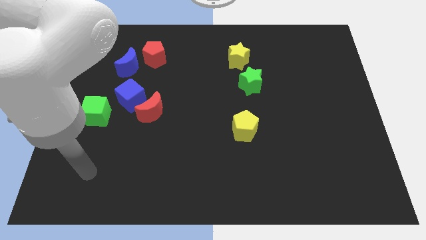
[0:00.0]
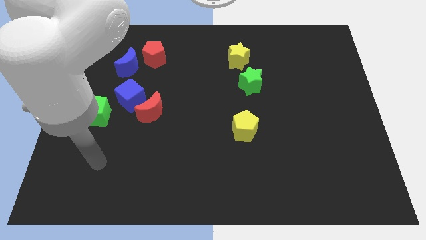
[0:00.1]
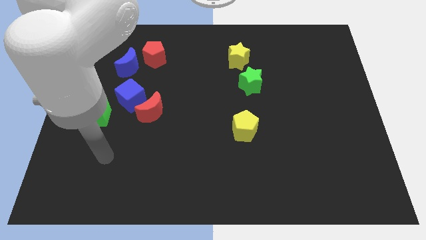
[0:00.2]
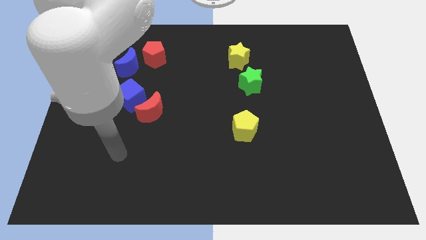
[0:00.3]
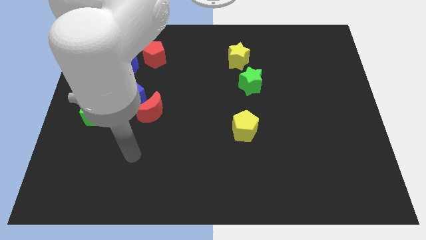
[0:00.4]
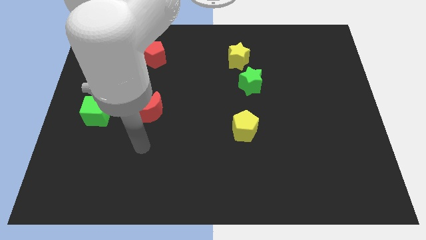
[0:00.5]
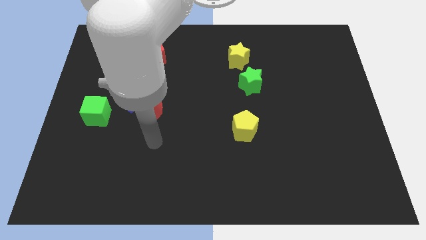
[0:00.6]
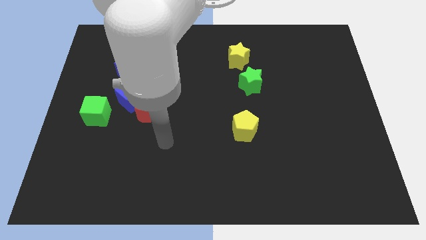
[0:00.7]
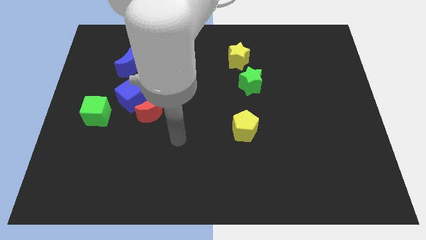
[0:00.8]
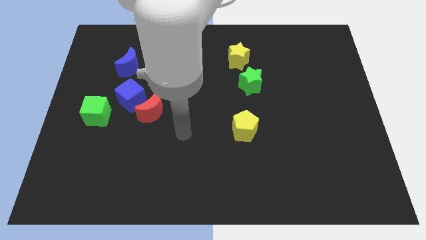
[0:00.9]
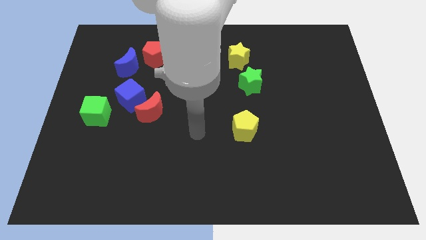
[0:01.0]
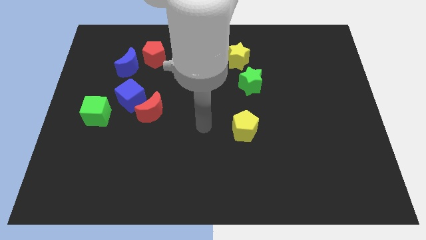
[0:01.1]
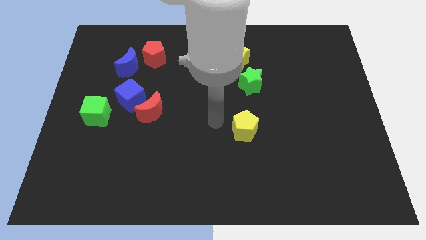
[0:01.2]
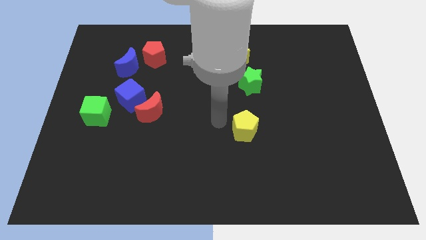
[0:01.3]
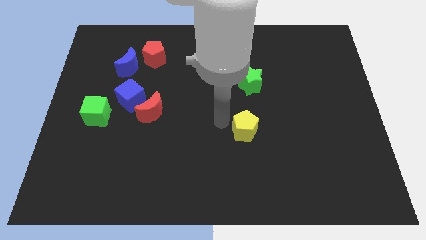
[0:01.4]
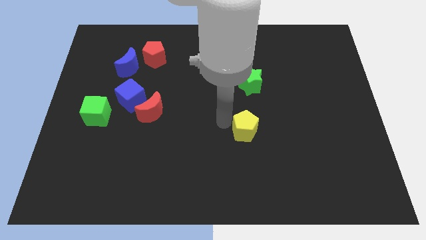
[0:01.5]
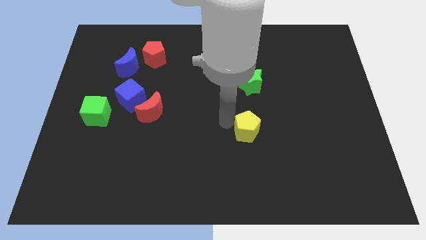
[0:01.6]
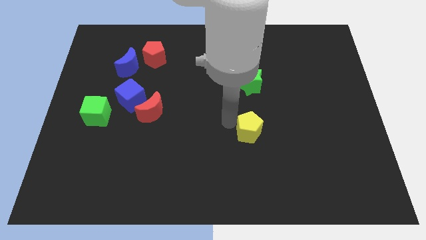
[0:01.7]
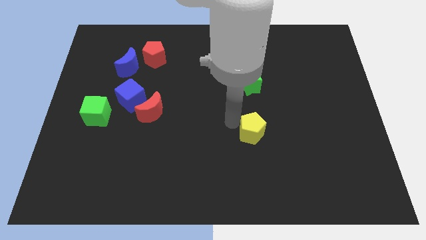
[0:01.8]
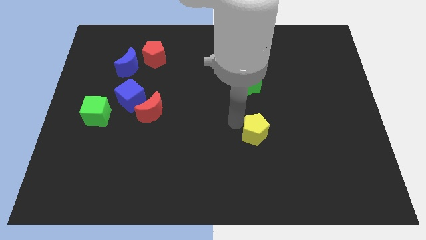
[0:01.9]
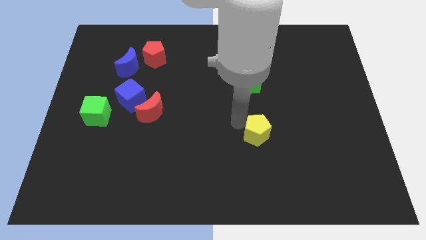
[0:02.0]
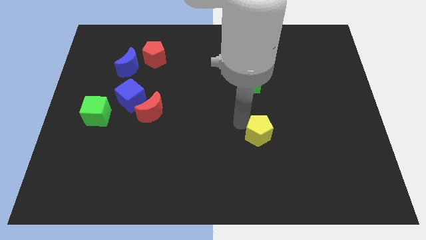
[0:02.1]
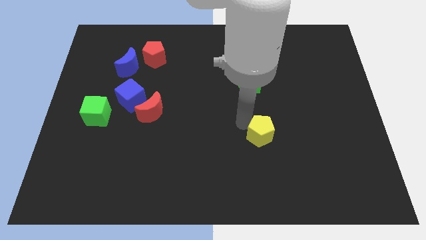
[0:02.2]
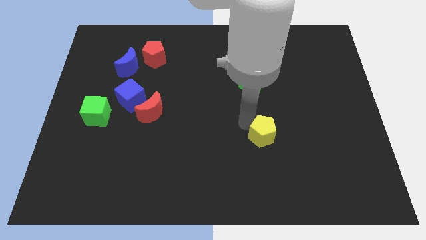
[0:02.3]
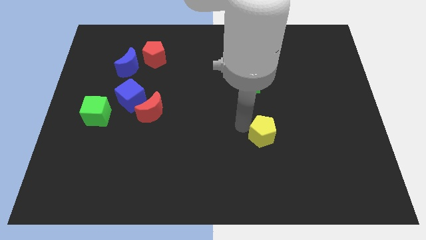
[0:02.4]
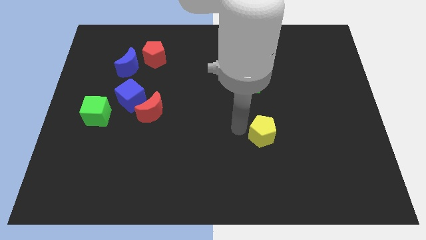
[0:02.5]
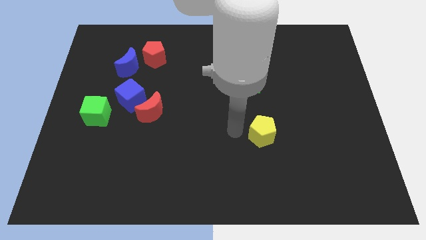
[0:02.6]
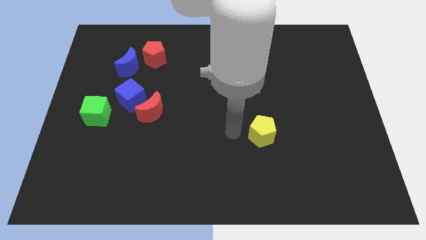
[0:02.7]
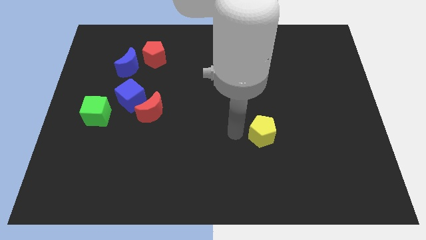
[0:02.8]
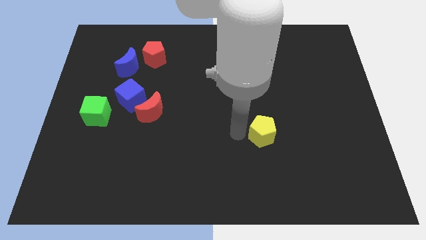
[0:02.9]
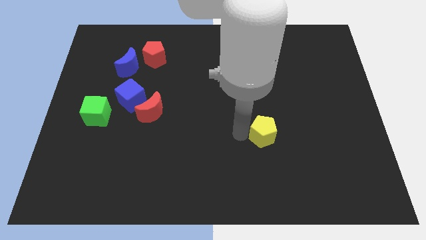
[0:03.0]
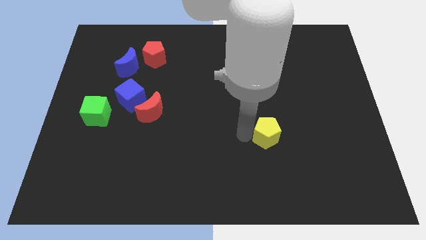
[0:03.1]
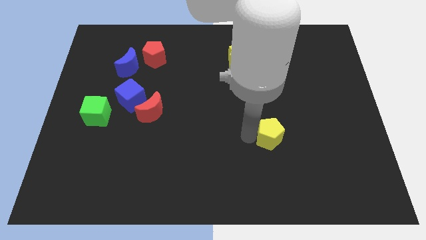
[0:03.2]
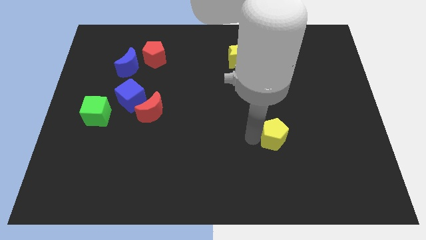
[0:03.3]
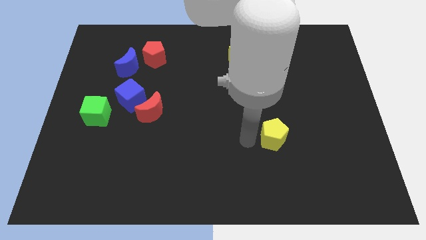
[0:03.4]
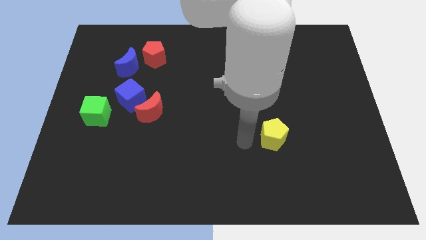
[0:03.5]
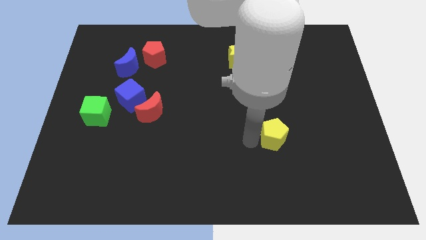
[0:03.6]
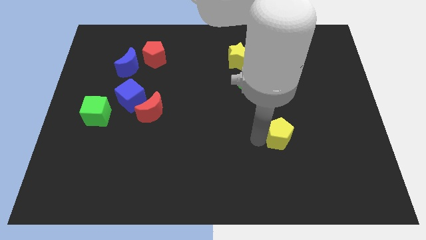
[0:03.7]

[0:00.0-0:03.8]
slide the yellow pentagon to the right slightly

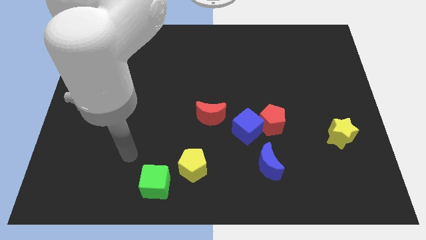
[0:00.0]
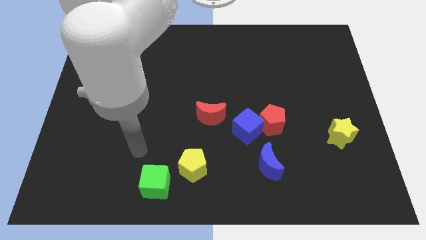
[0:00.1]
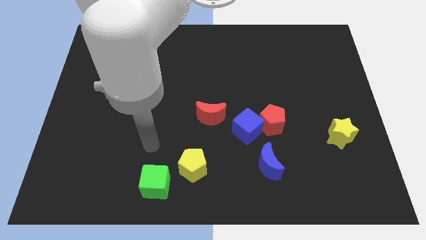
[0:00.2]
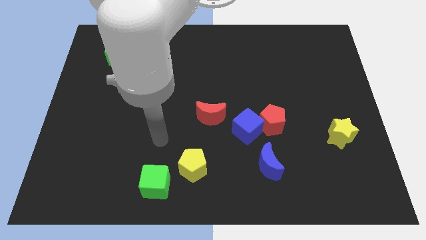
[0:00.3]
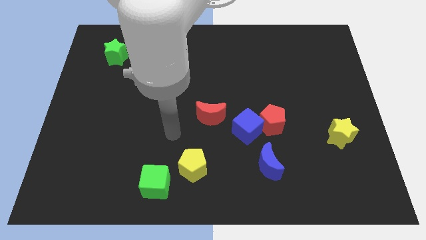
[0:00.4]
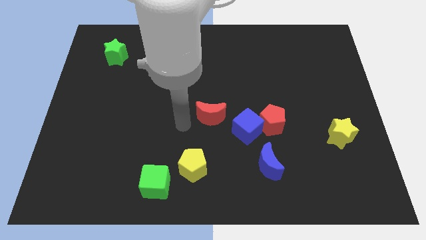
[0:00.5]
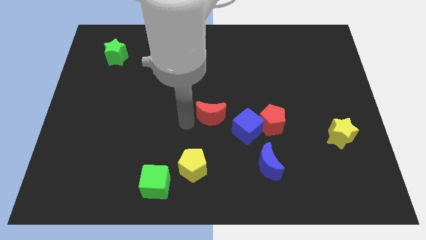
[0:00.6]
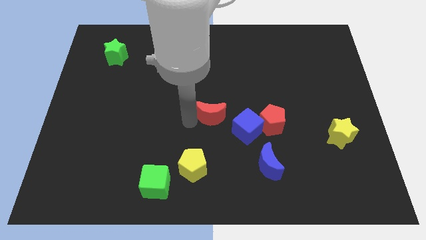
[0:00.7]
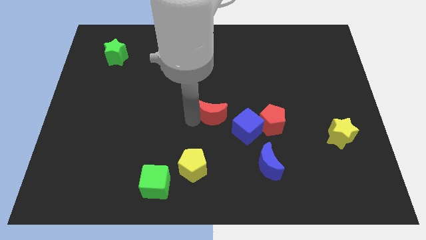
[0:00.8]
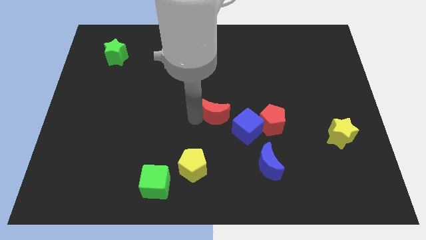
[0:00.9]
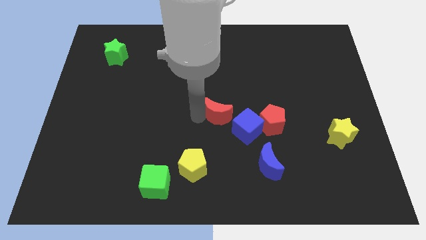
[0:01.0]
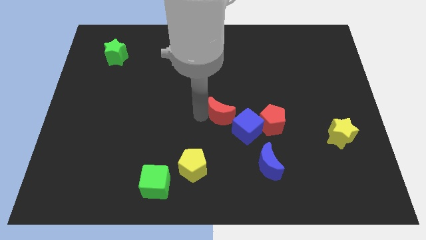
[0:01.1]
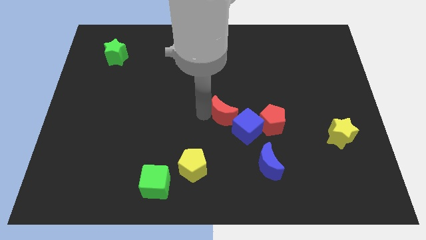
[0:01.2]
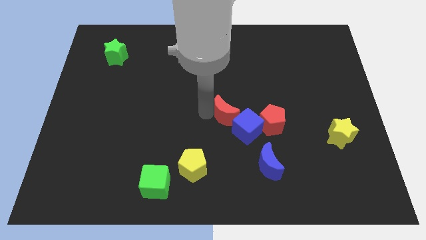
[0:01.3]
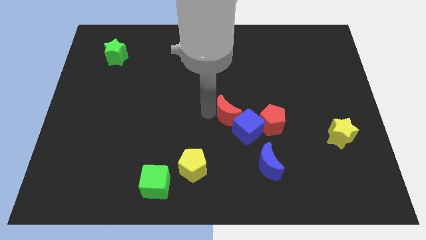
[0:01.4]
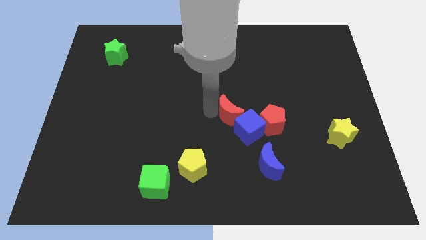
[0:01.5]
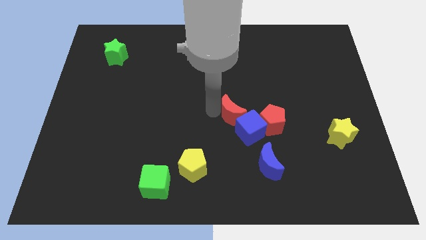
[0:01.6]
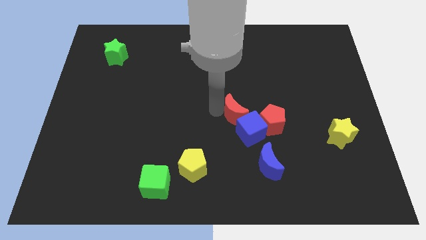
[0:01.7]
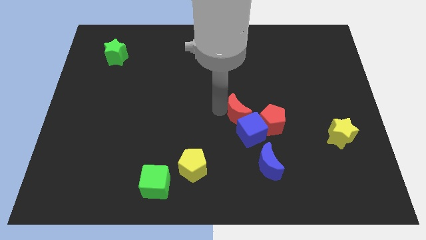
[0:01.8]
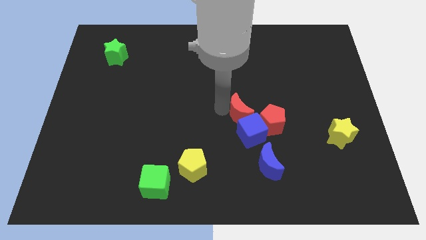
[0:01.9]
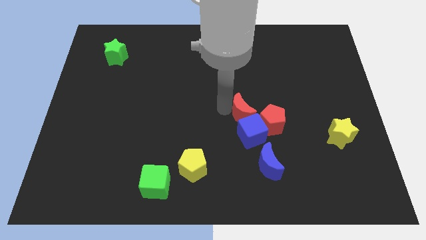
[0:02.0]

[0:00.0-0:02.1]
push the red moon right a little

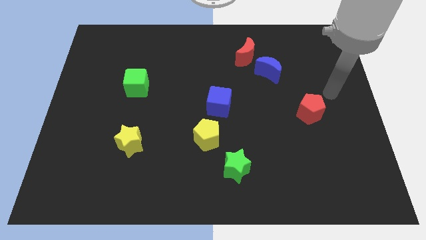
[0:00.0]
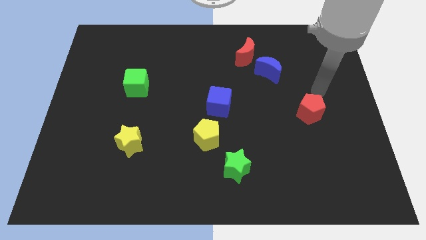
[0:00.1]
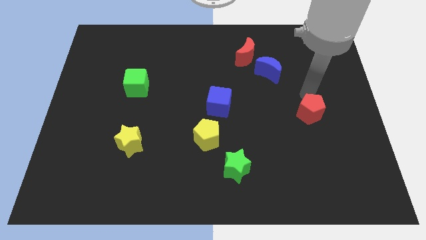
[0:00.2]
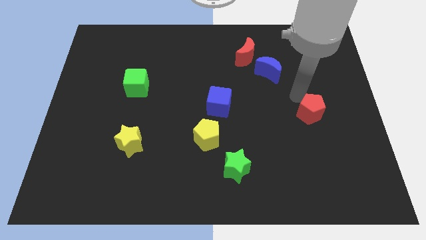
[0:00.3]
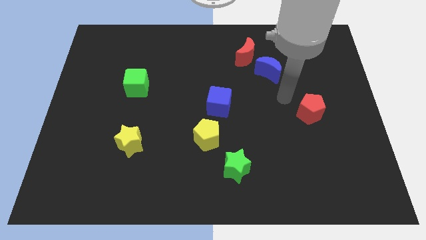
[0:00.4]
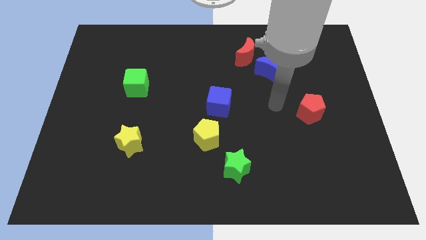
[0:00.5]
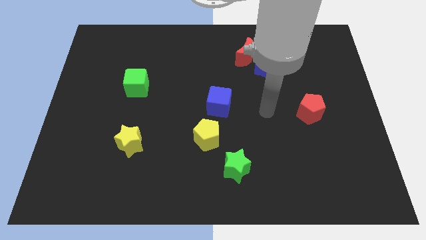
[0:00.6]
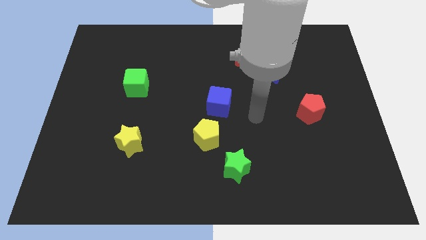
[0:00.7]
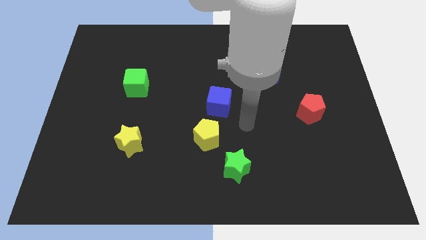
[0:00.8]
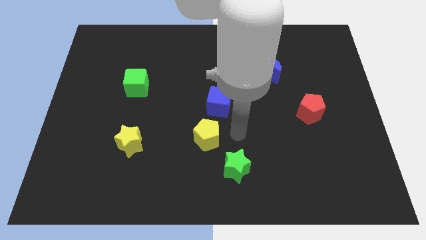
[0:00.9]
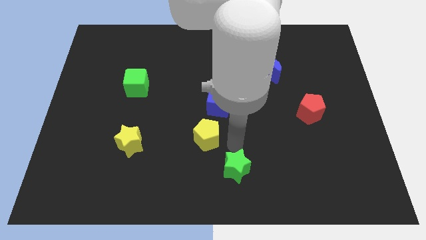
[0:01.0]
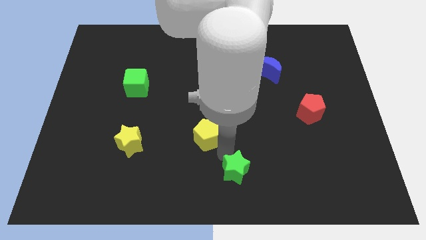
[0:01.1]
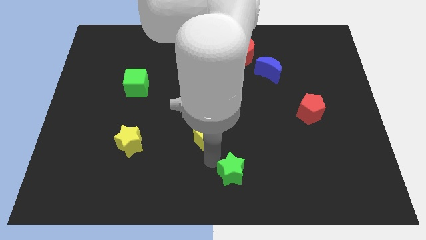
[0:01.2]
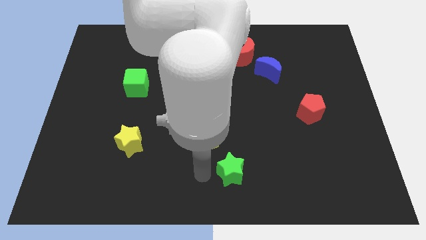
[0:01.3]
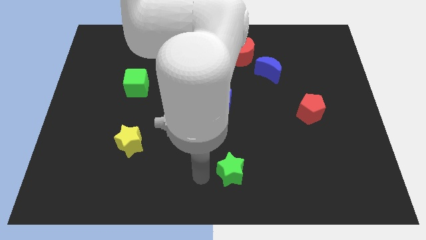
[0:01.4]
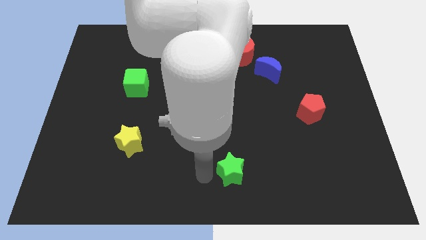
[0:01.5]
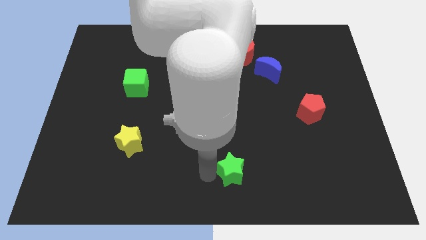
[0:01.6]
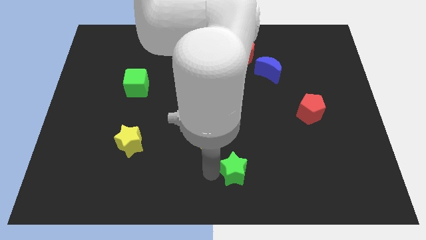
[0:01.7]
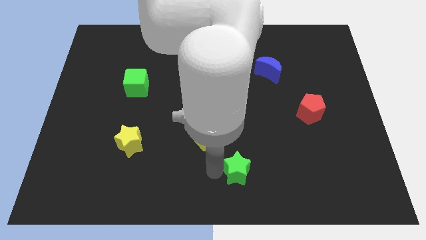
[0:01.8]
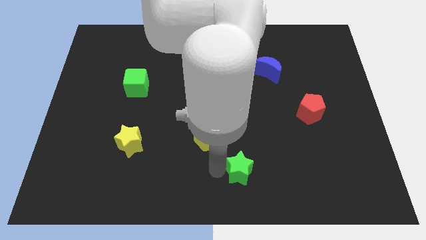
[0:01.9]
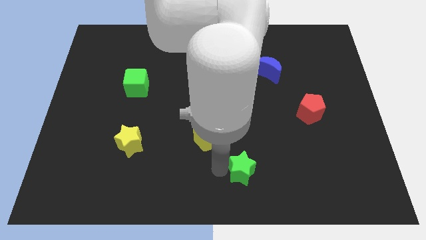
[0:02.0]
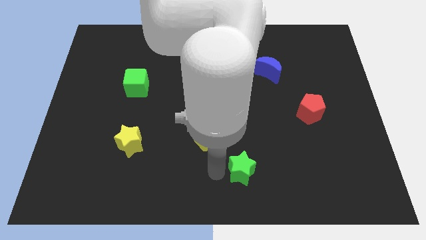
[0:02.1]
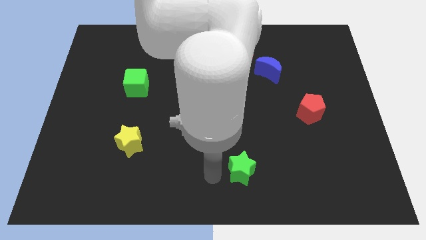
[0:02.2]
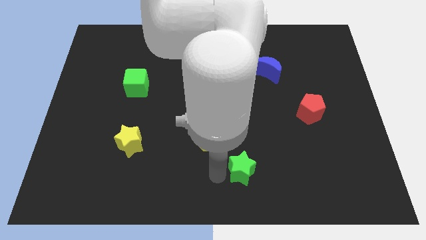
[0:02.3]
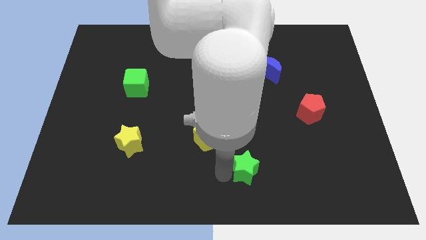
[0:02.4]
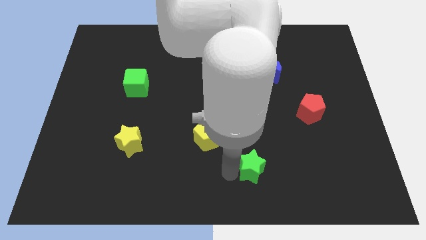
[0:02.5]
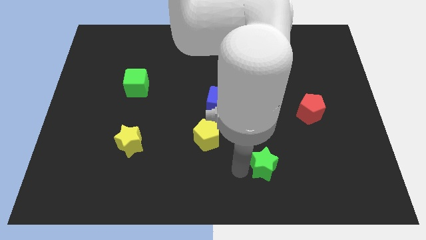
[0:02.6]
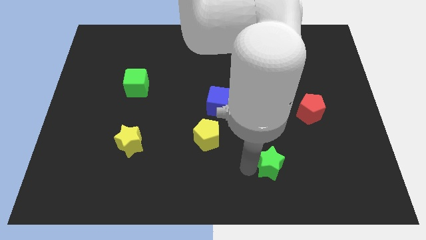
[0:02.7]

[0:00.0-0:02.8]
slightly slide the green star right
